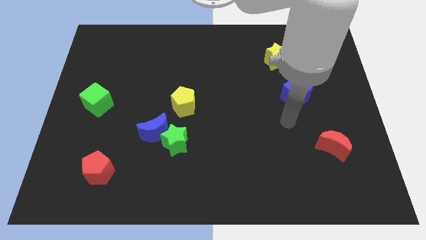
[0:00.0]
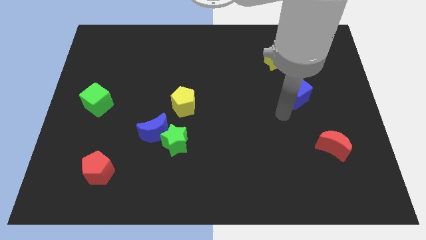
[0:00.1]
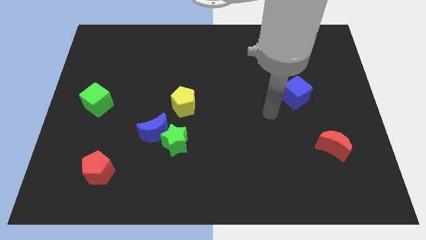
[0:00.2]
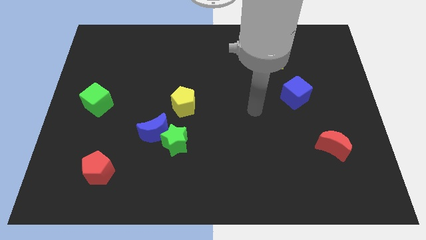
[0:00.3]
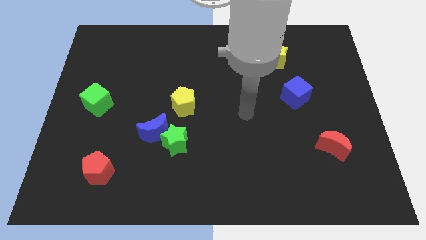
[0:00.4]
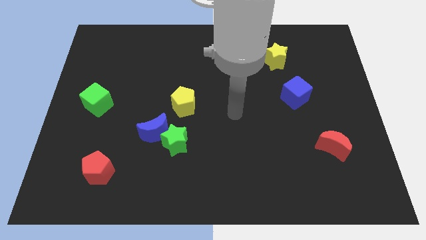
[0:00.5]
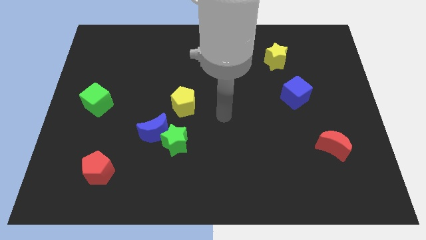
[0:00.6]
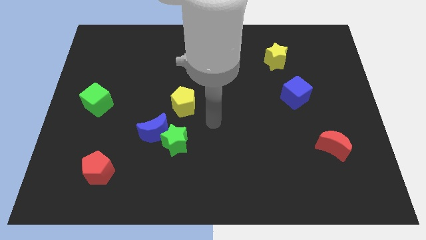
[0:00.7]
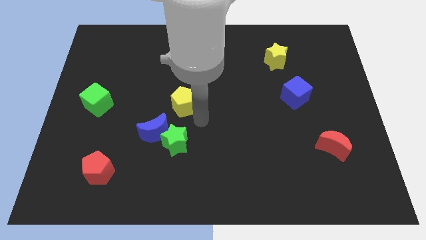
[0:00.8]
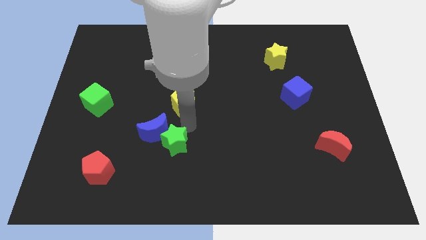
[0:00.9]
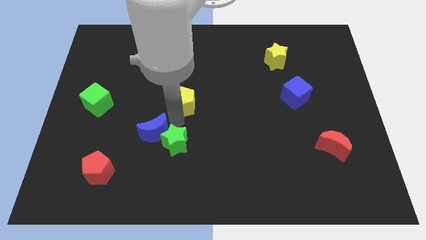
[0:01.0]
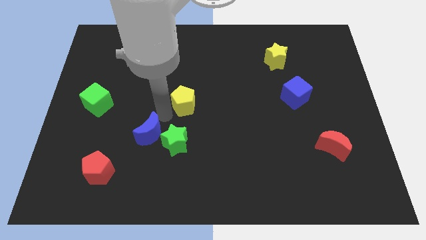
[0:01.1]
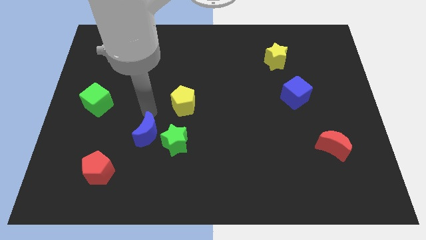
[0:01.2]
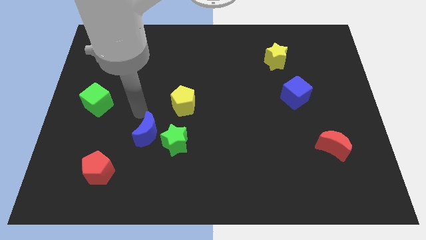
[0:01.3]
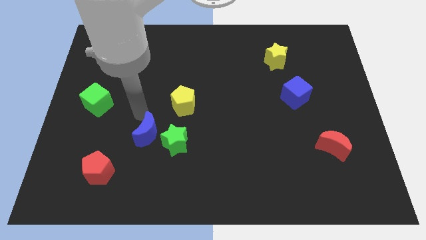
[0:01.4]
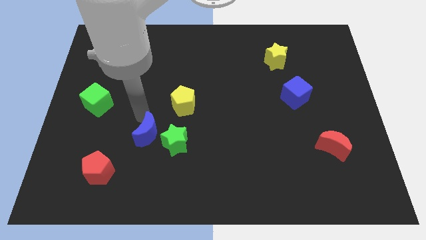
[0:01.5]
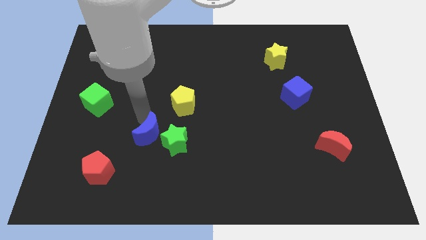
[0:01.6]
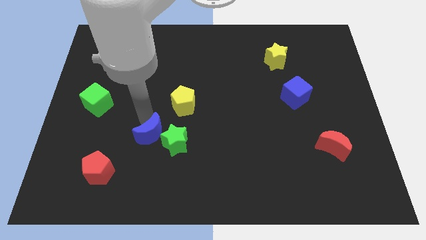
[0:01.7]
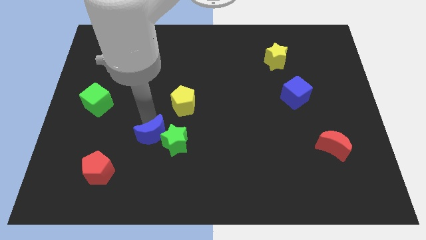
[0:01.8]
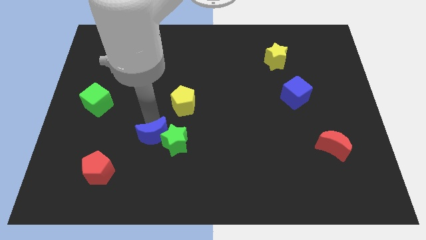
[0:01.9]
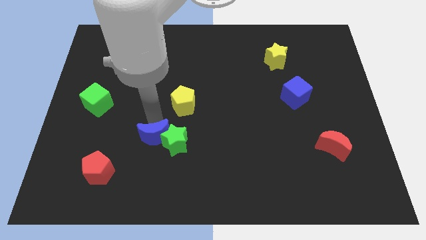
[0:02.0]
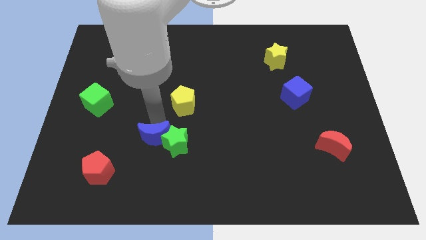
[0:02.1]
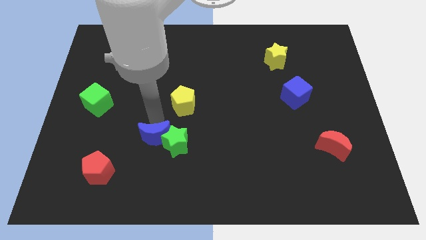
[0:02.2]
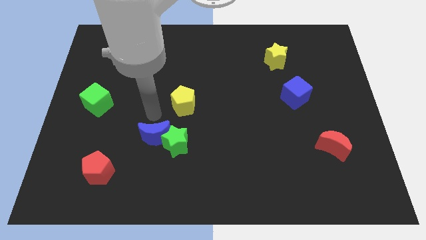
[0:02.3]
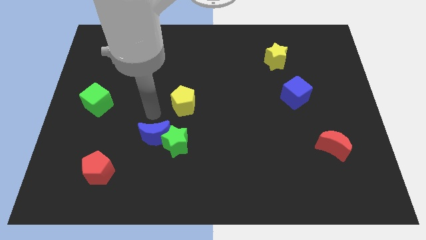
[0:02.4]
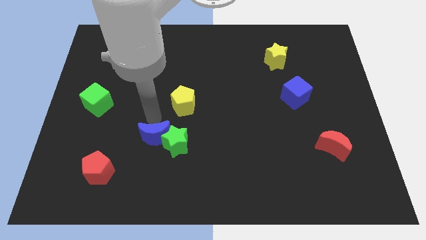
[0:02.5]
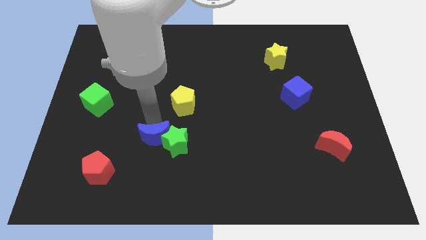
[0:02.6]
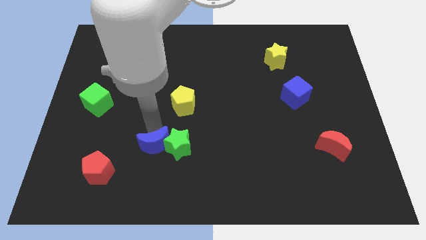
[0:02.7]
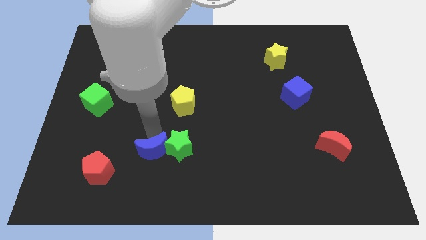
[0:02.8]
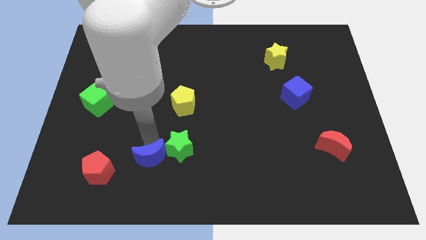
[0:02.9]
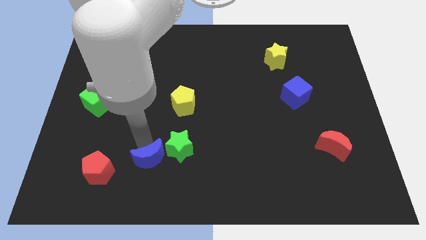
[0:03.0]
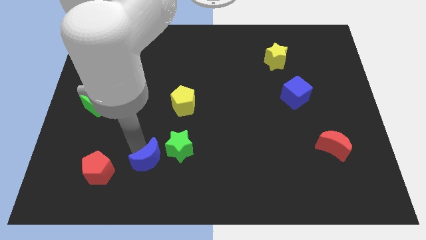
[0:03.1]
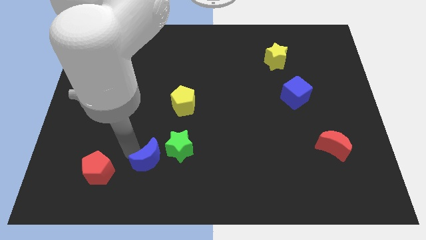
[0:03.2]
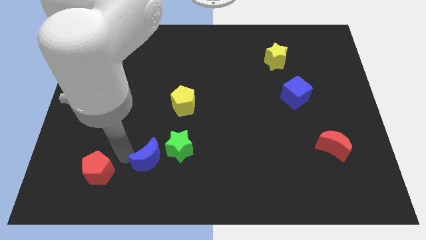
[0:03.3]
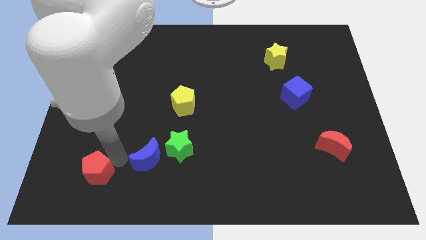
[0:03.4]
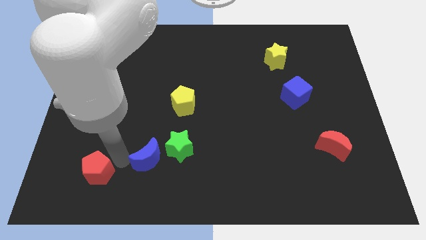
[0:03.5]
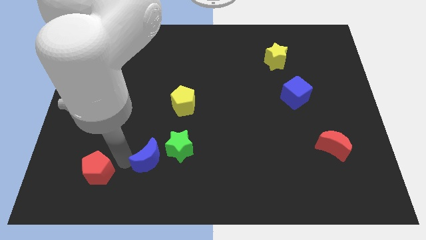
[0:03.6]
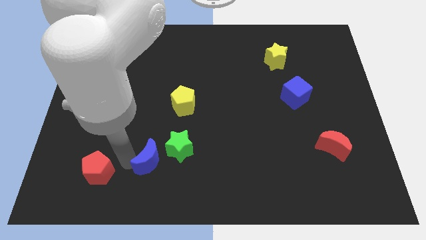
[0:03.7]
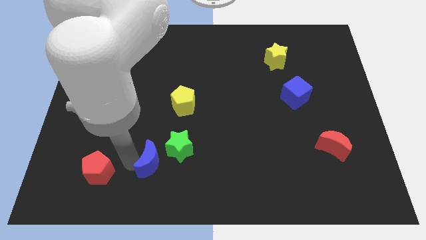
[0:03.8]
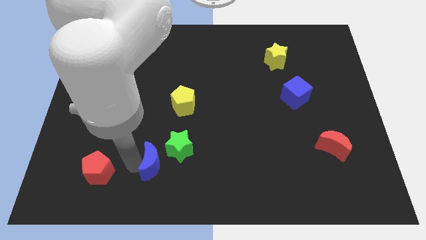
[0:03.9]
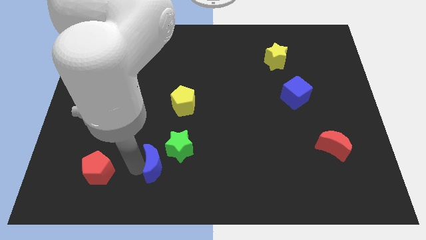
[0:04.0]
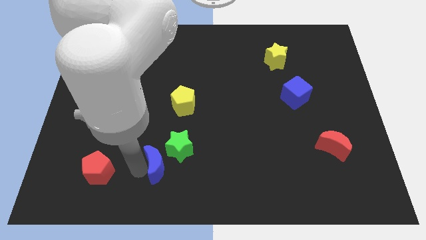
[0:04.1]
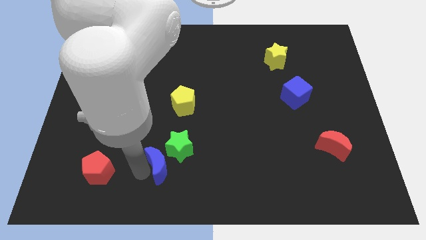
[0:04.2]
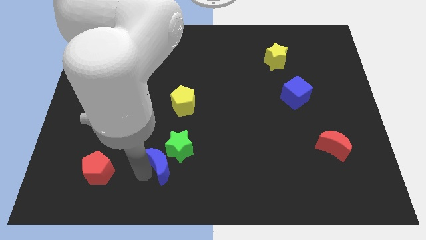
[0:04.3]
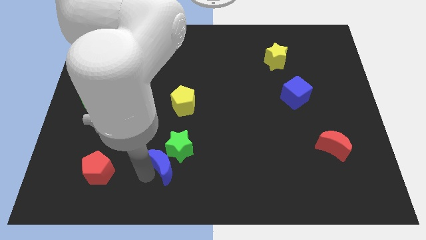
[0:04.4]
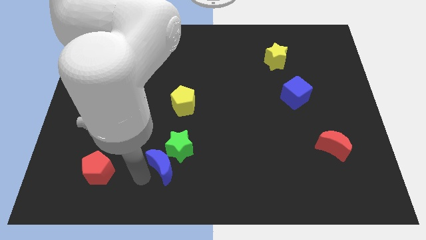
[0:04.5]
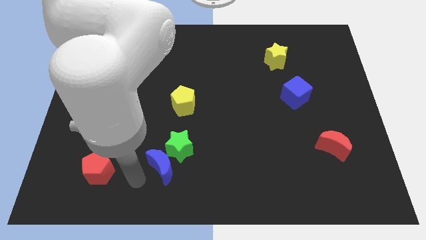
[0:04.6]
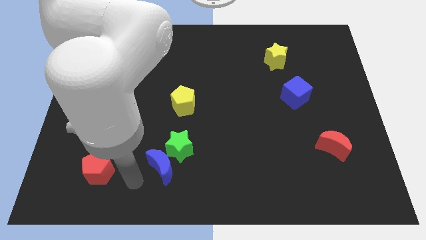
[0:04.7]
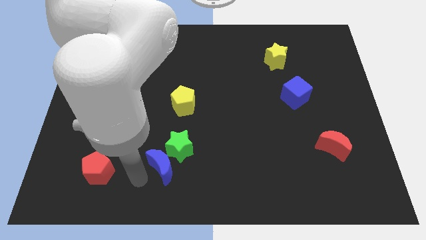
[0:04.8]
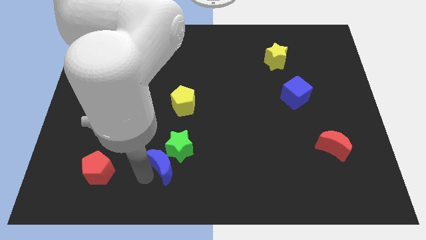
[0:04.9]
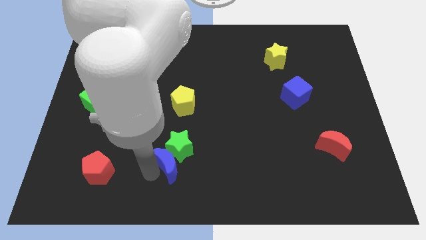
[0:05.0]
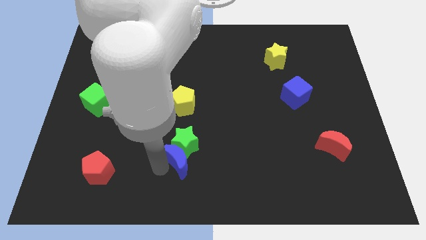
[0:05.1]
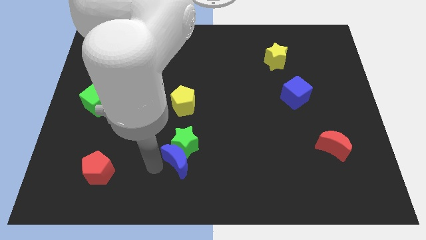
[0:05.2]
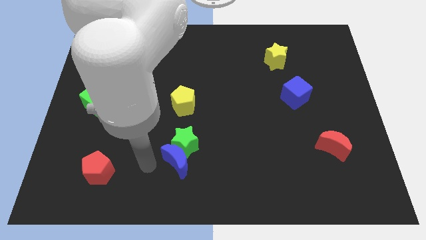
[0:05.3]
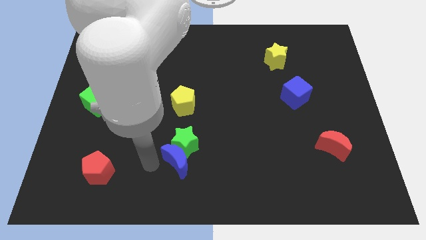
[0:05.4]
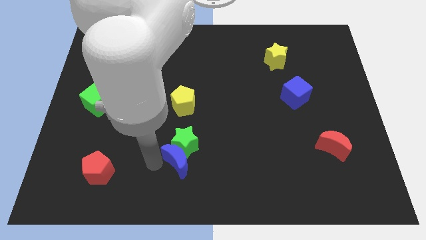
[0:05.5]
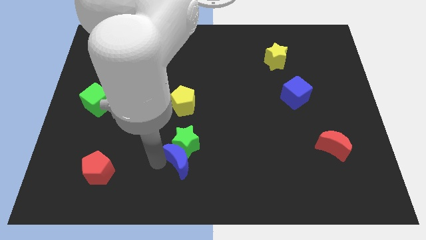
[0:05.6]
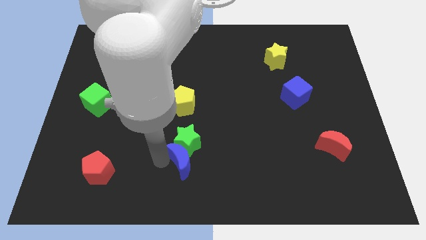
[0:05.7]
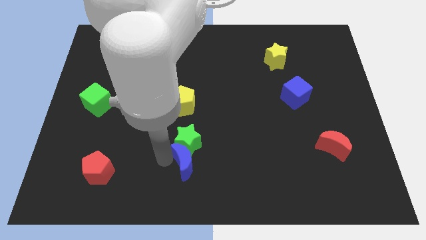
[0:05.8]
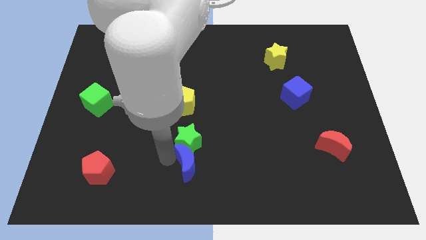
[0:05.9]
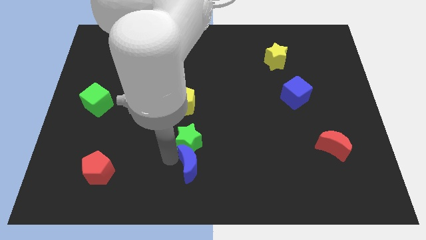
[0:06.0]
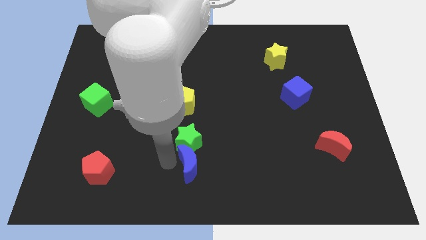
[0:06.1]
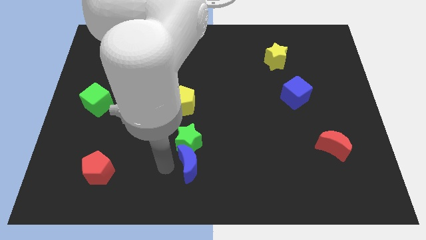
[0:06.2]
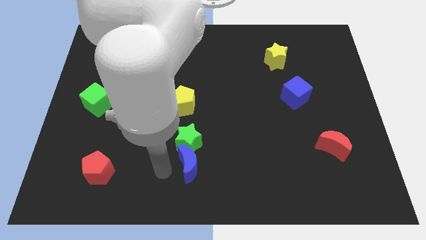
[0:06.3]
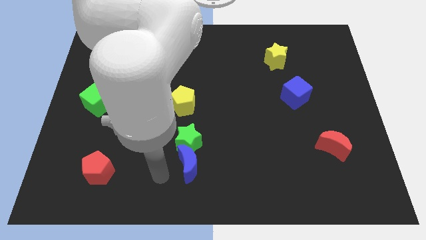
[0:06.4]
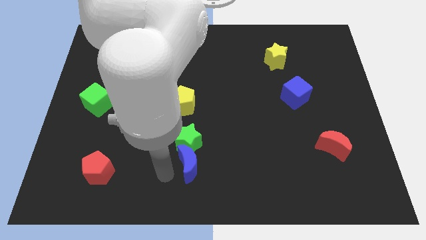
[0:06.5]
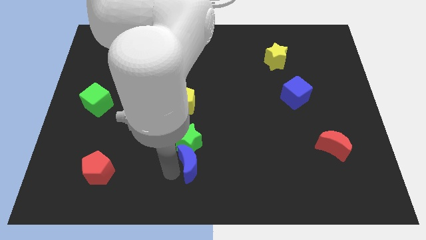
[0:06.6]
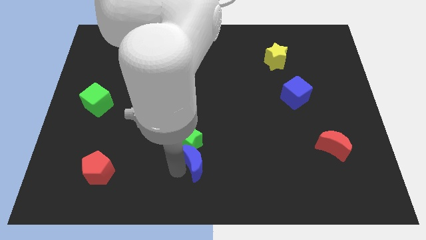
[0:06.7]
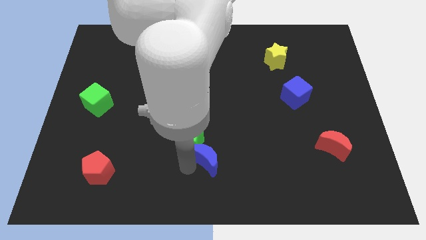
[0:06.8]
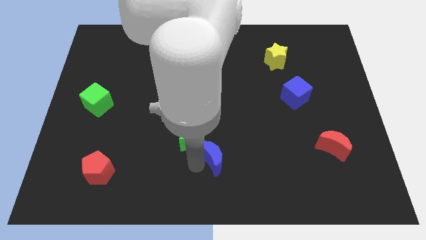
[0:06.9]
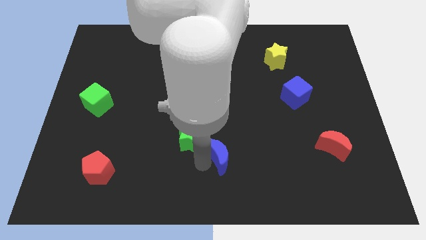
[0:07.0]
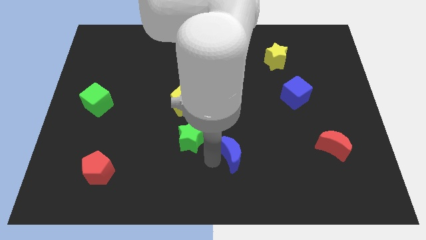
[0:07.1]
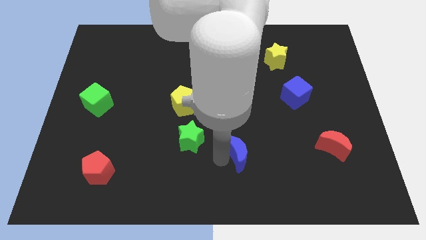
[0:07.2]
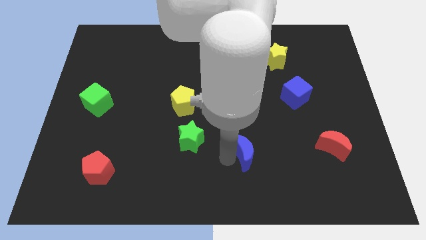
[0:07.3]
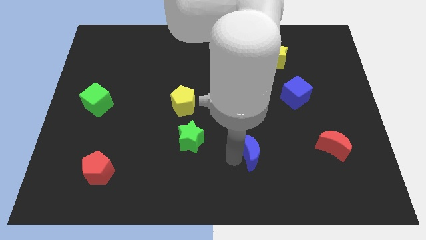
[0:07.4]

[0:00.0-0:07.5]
slide the blue moon right
